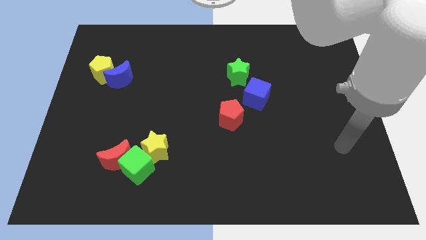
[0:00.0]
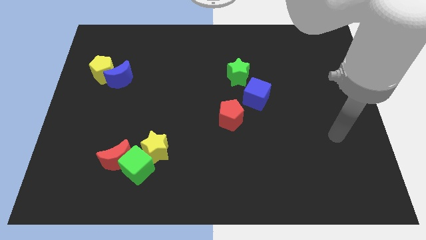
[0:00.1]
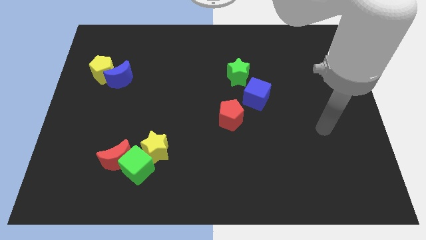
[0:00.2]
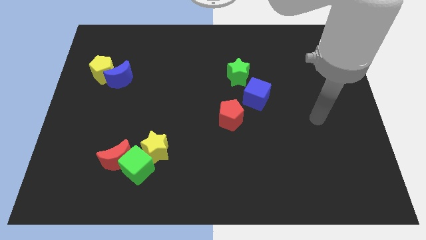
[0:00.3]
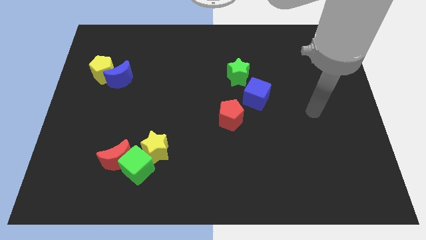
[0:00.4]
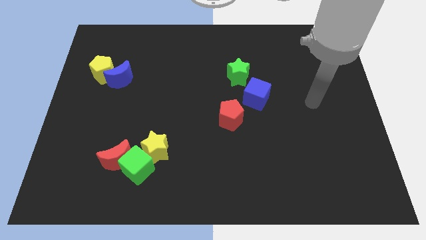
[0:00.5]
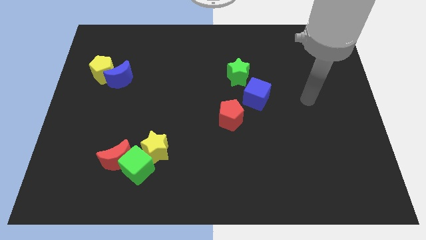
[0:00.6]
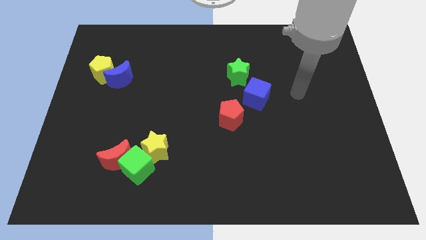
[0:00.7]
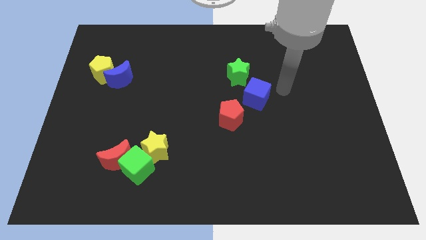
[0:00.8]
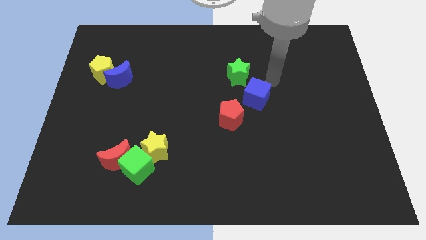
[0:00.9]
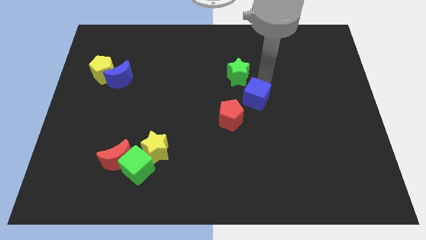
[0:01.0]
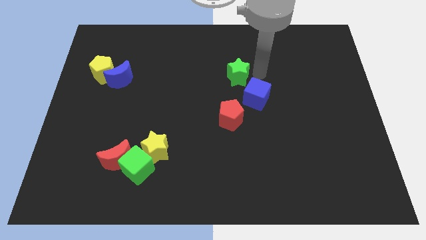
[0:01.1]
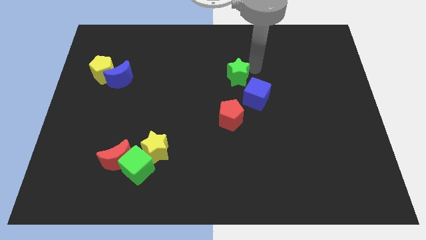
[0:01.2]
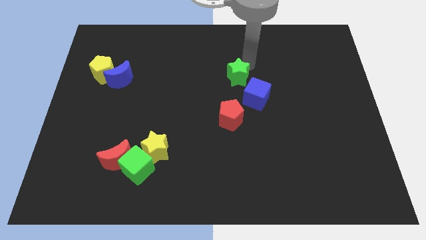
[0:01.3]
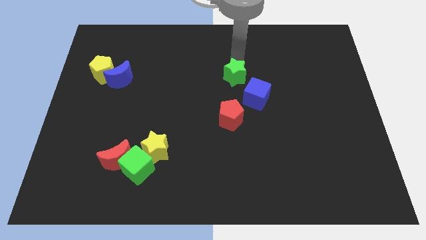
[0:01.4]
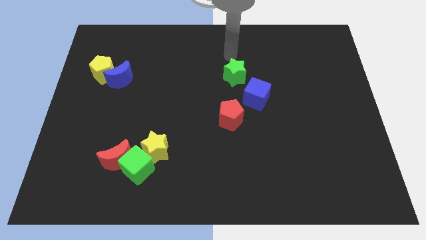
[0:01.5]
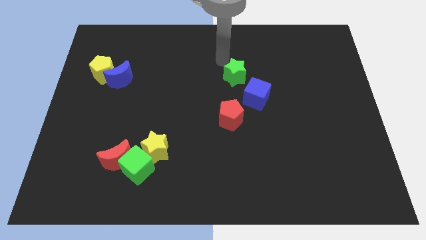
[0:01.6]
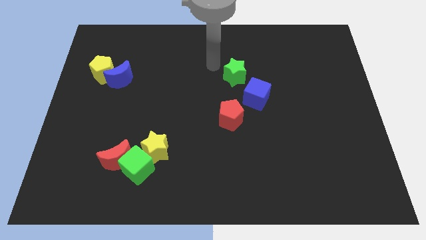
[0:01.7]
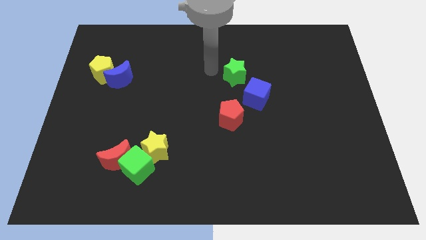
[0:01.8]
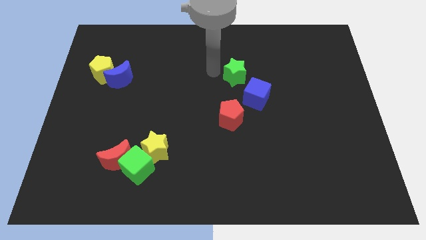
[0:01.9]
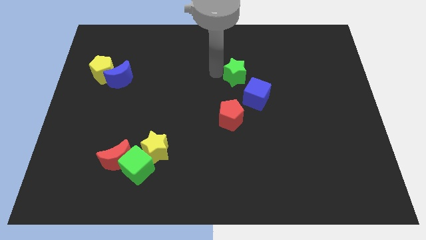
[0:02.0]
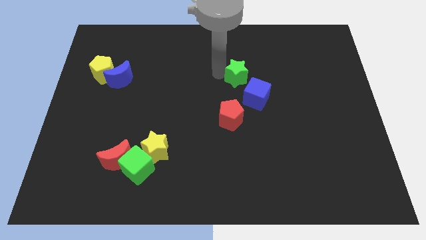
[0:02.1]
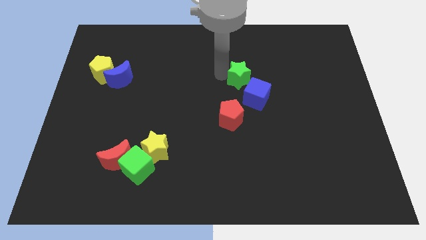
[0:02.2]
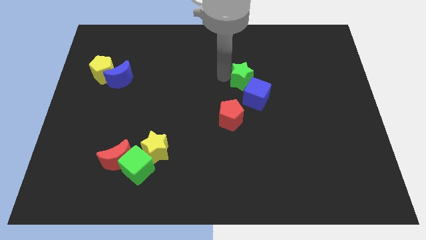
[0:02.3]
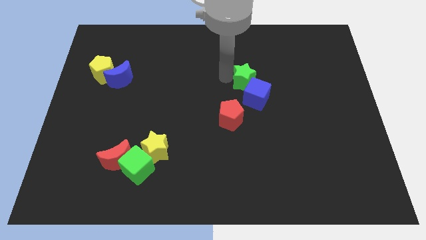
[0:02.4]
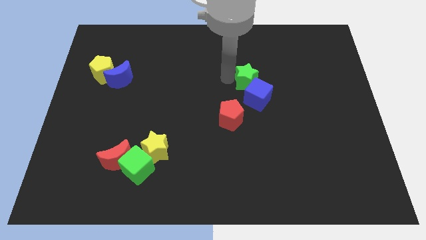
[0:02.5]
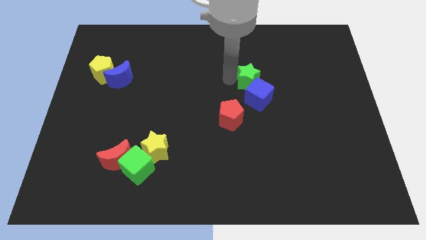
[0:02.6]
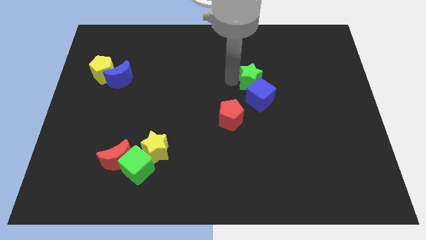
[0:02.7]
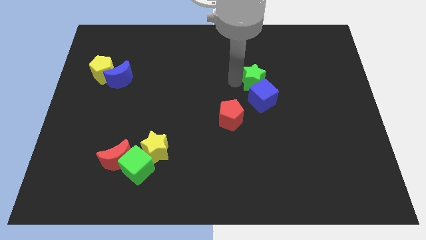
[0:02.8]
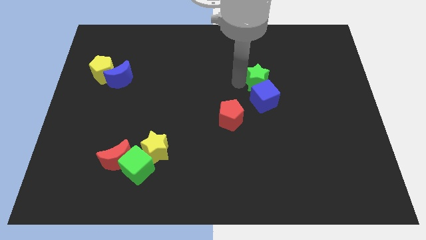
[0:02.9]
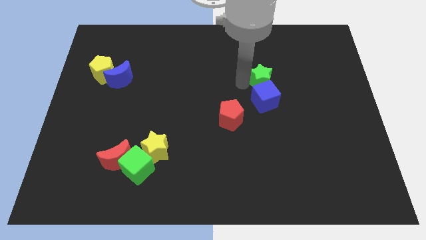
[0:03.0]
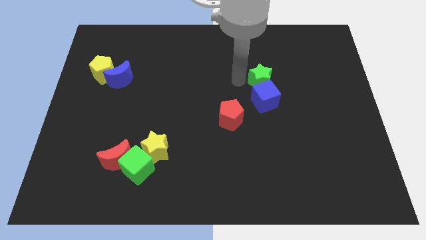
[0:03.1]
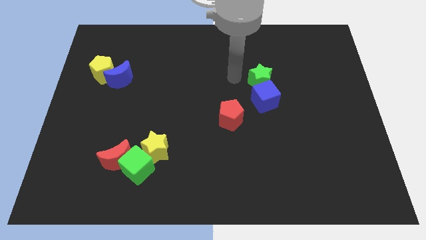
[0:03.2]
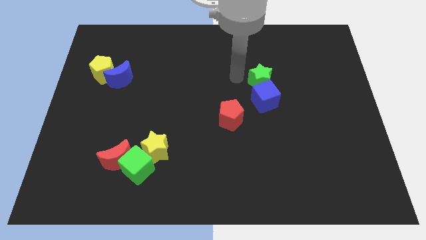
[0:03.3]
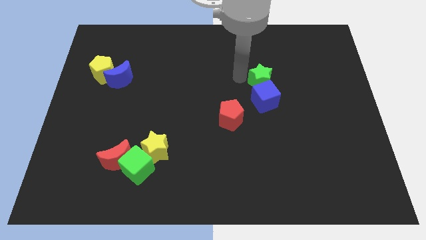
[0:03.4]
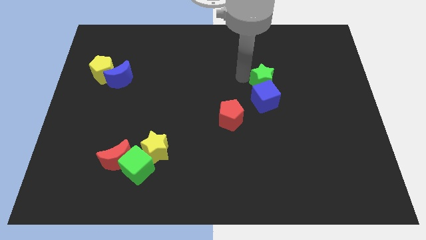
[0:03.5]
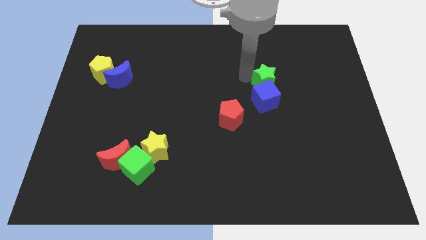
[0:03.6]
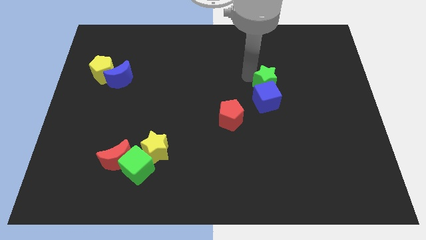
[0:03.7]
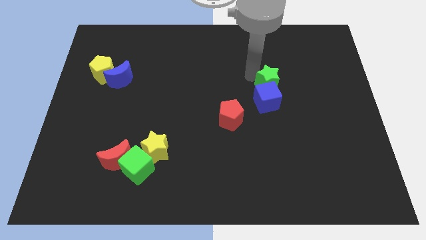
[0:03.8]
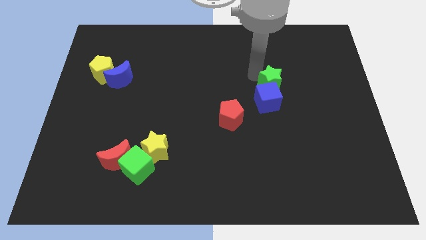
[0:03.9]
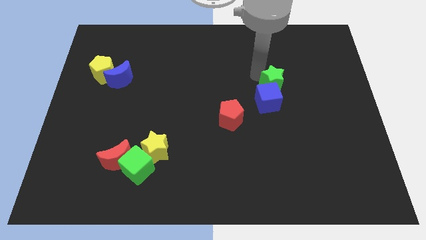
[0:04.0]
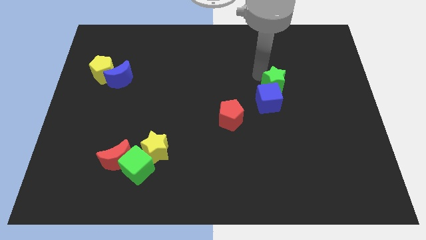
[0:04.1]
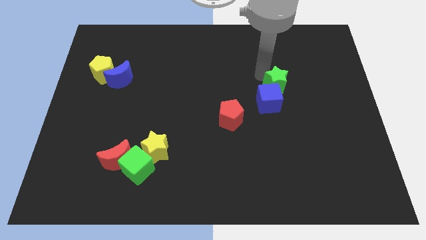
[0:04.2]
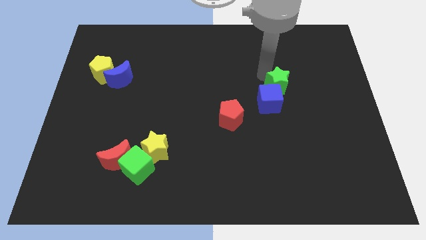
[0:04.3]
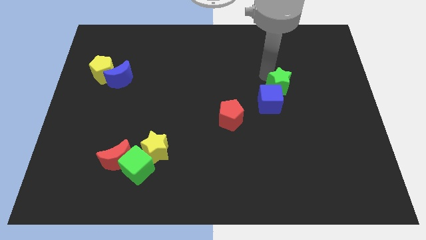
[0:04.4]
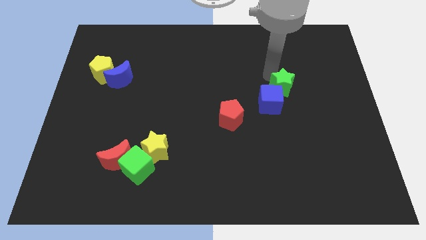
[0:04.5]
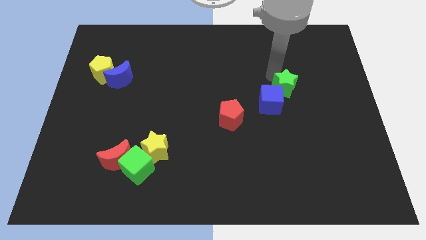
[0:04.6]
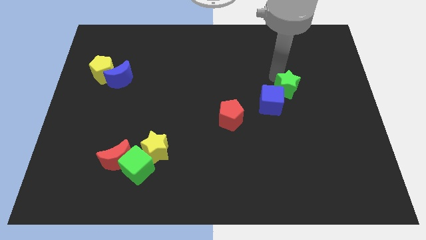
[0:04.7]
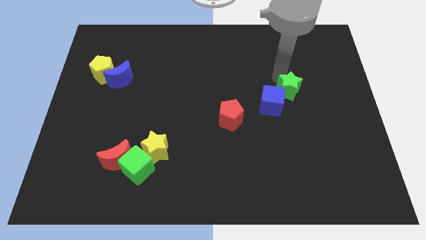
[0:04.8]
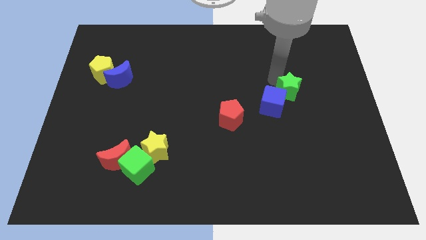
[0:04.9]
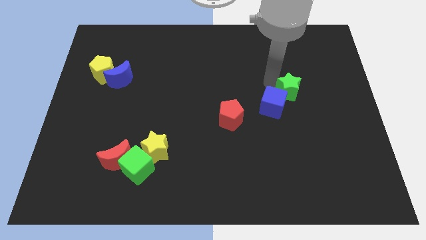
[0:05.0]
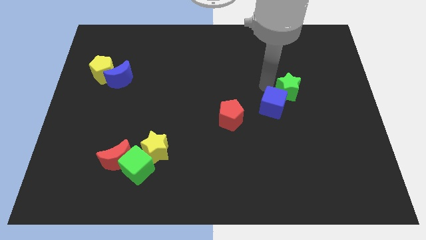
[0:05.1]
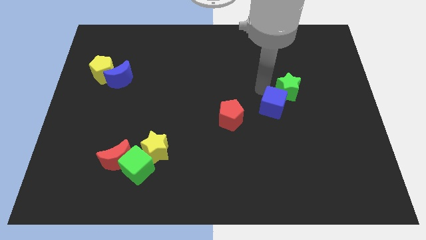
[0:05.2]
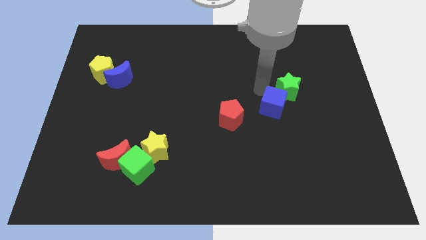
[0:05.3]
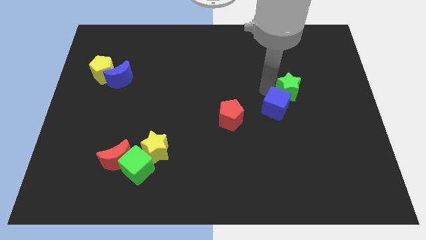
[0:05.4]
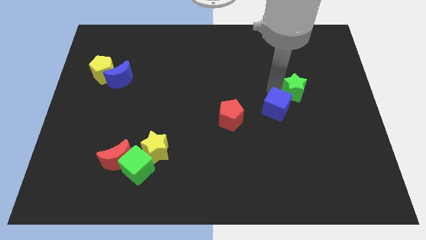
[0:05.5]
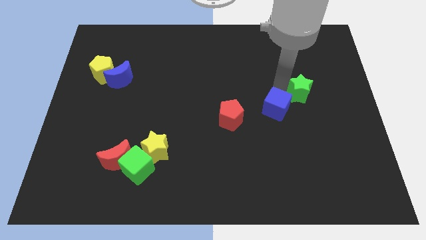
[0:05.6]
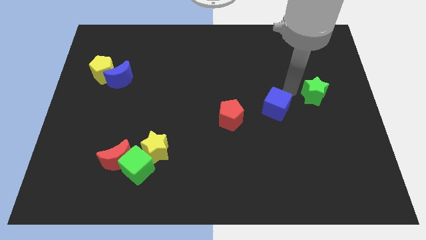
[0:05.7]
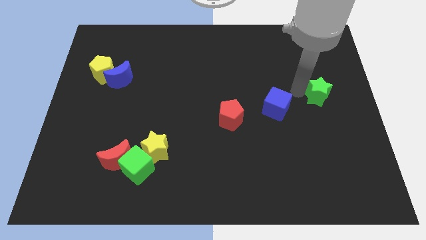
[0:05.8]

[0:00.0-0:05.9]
move the green star to the right side of the board

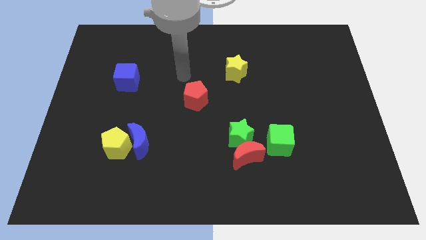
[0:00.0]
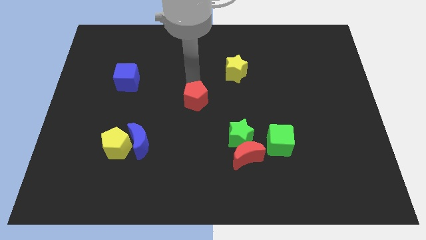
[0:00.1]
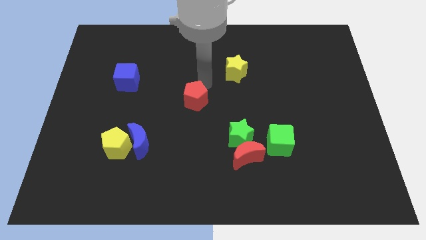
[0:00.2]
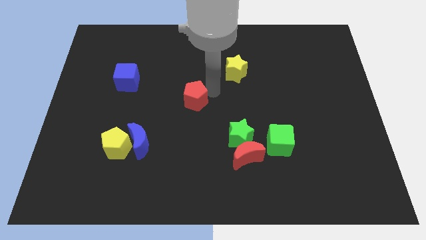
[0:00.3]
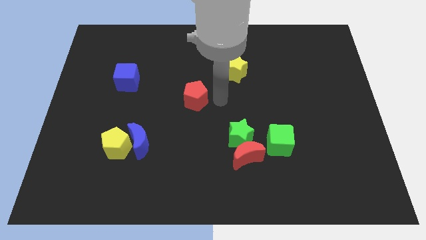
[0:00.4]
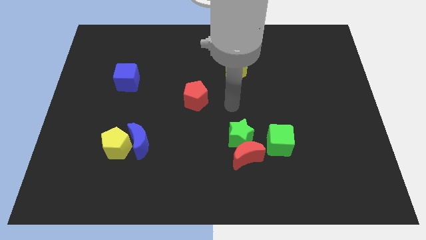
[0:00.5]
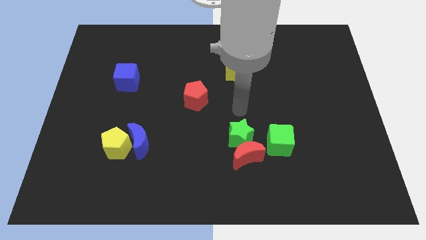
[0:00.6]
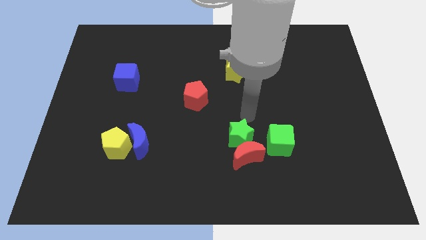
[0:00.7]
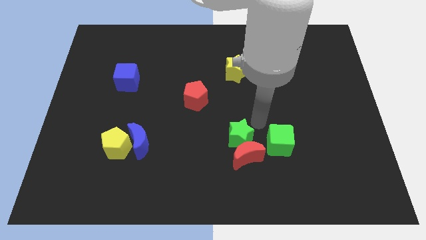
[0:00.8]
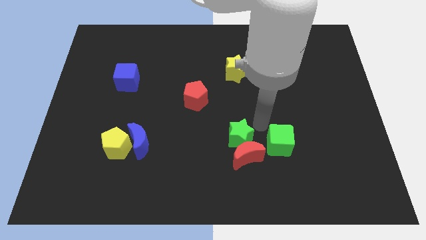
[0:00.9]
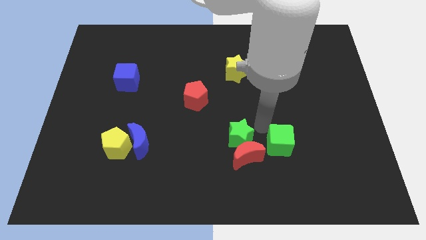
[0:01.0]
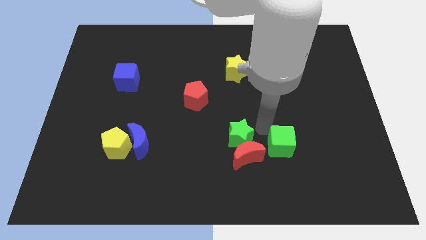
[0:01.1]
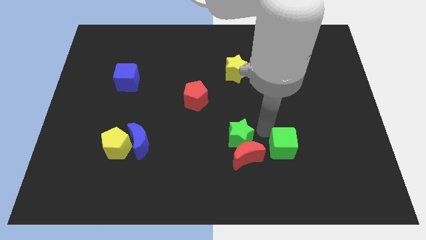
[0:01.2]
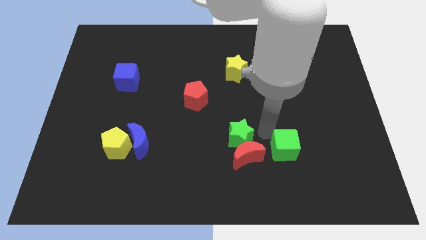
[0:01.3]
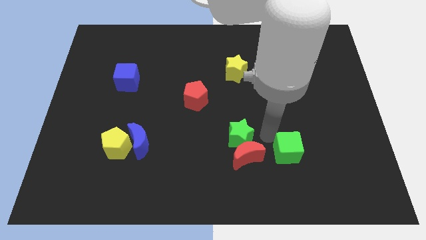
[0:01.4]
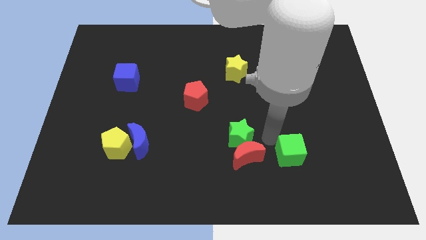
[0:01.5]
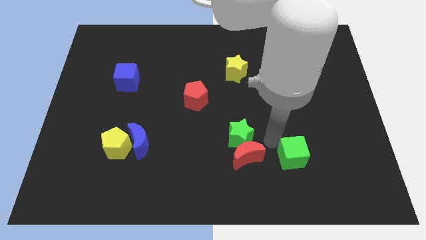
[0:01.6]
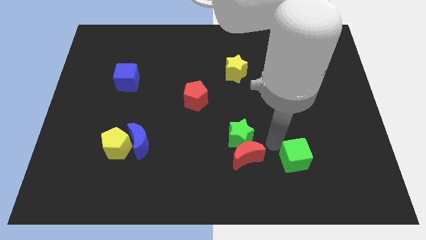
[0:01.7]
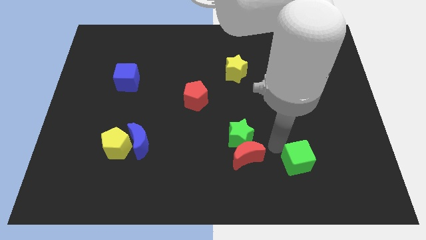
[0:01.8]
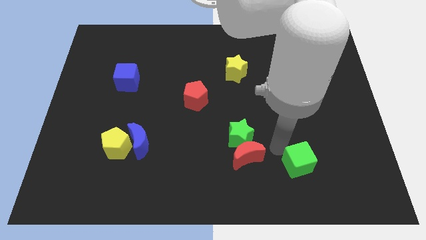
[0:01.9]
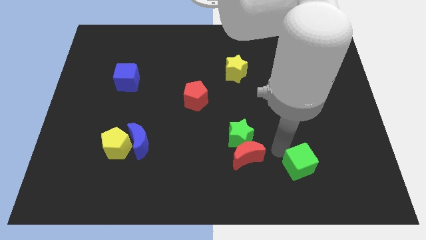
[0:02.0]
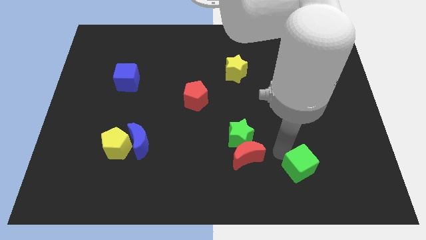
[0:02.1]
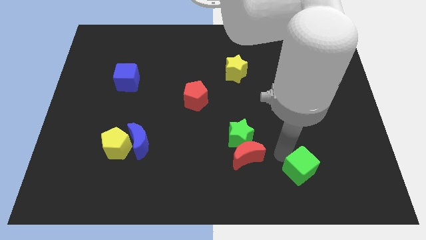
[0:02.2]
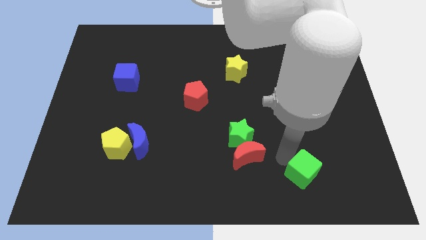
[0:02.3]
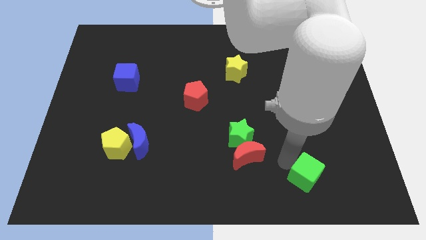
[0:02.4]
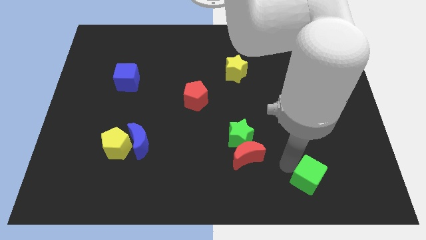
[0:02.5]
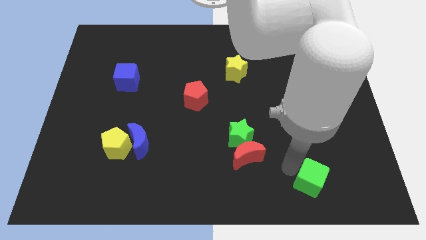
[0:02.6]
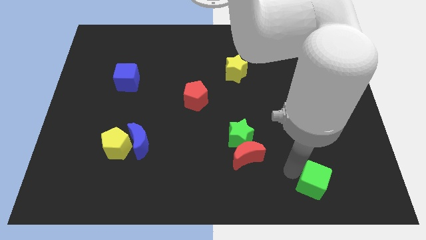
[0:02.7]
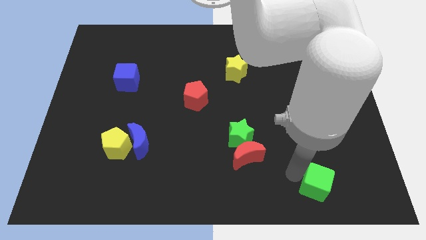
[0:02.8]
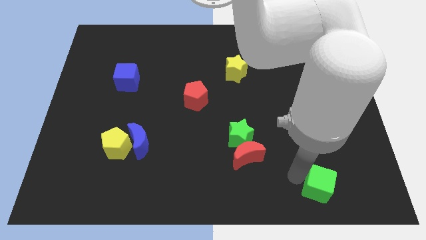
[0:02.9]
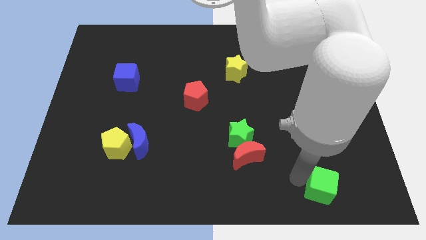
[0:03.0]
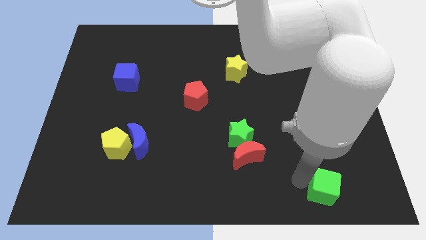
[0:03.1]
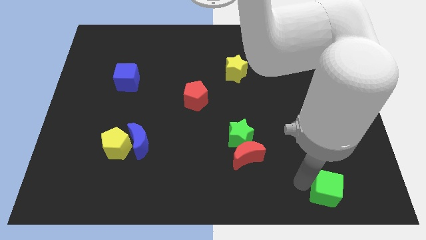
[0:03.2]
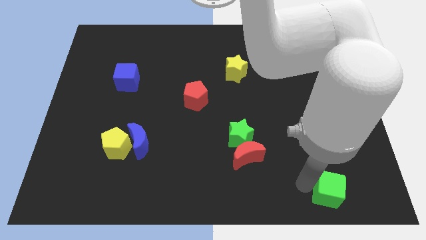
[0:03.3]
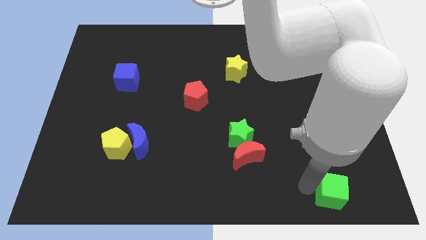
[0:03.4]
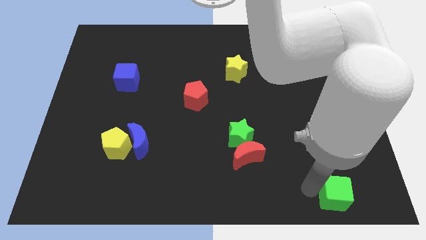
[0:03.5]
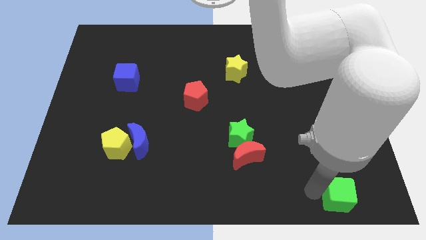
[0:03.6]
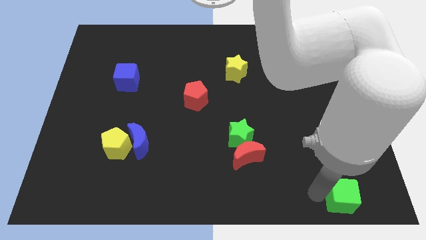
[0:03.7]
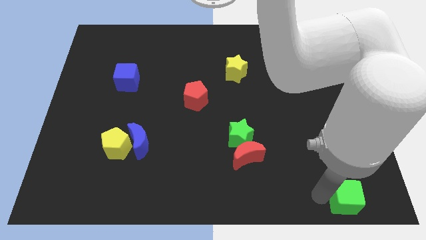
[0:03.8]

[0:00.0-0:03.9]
put the green cube to the bottom right corner
